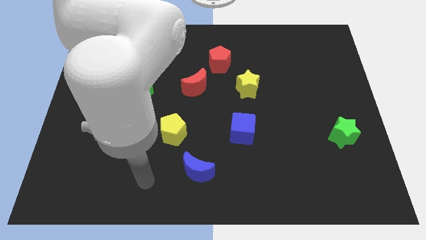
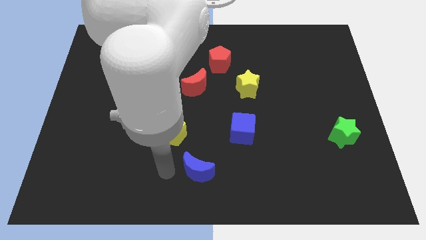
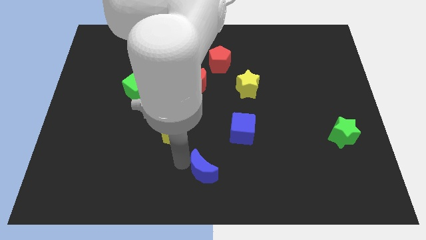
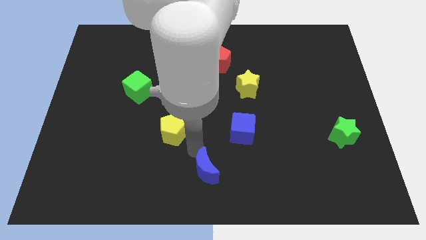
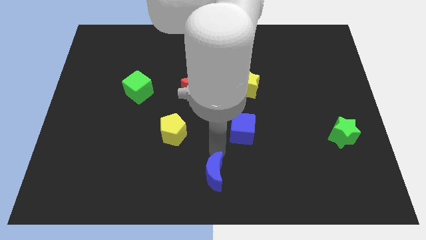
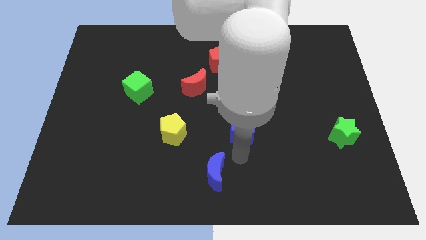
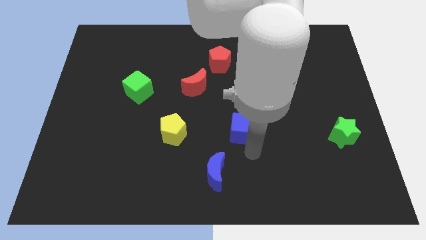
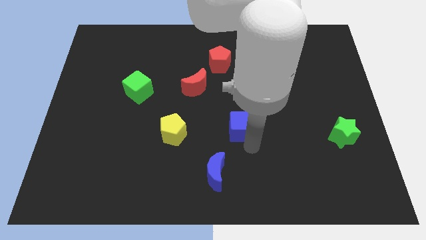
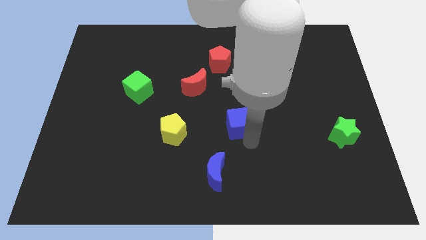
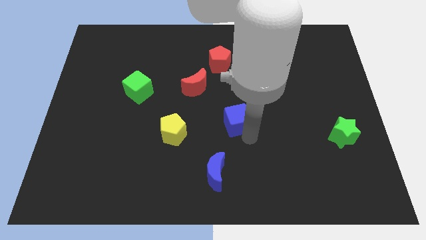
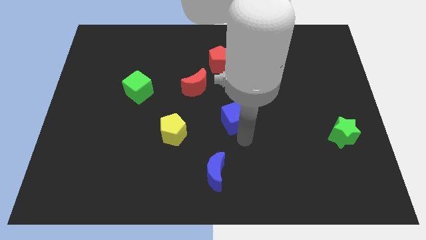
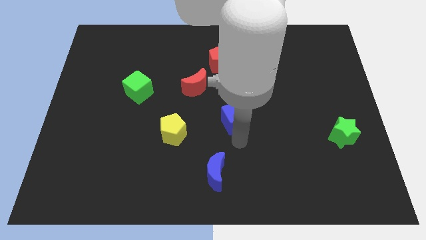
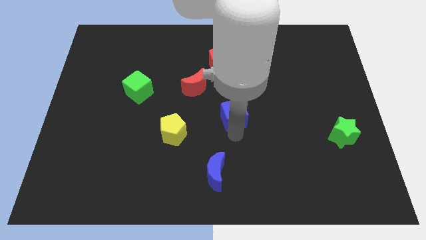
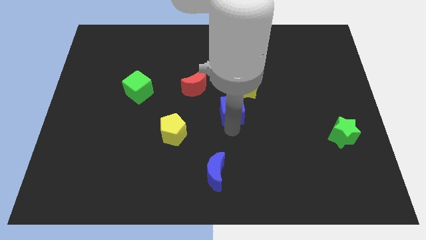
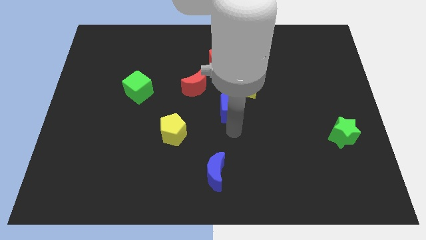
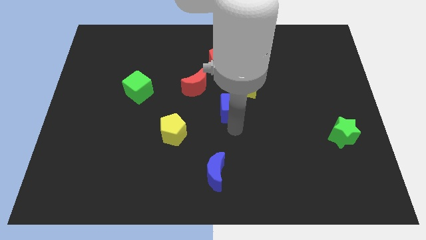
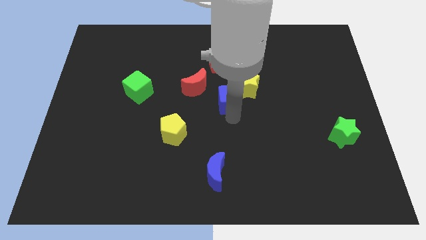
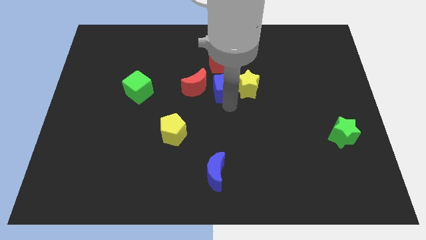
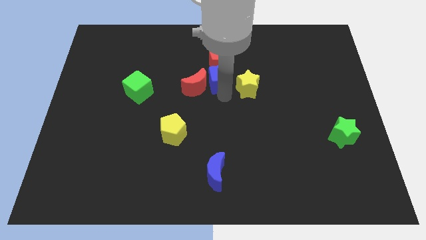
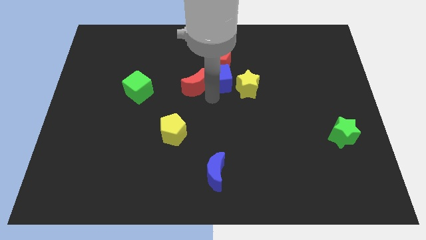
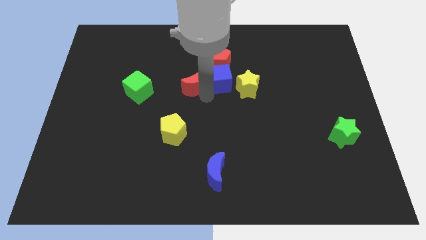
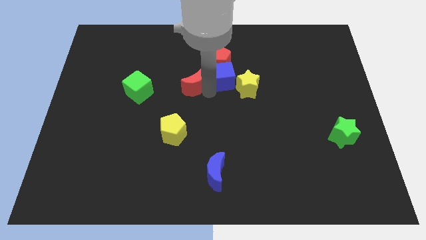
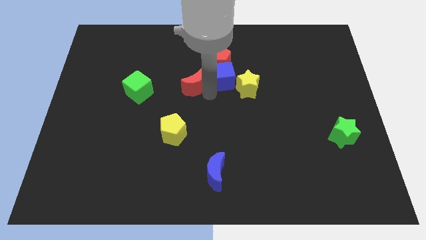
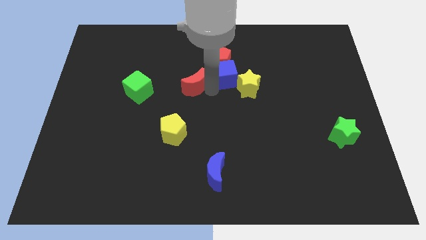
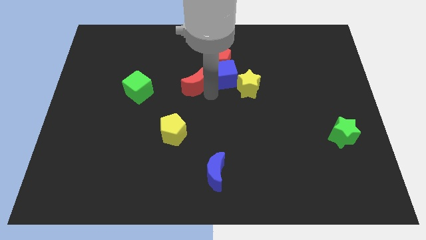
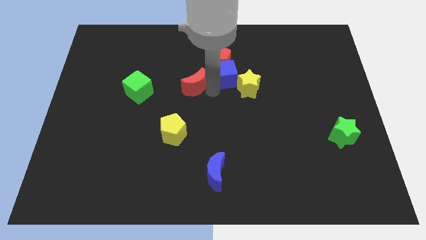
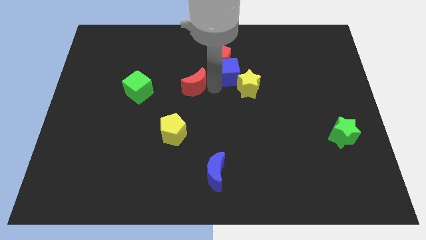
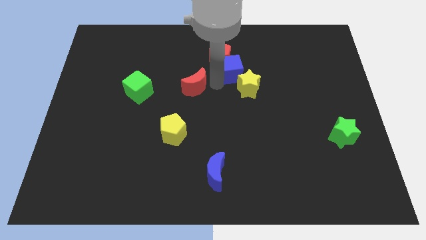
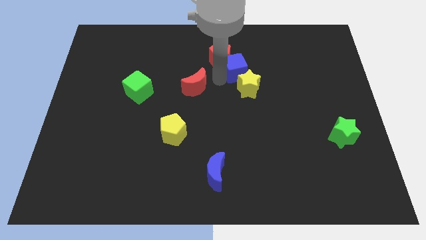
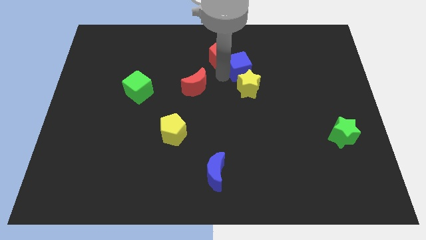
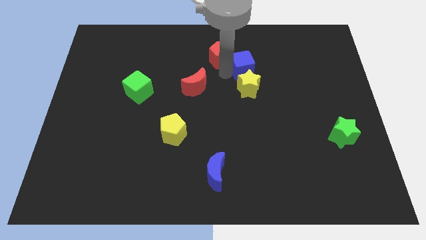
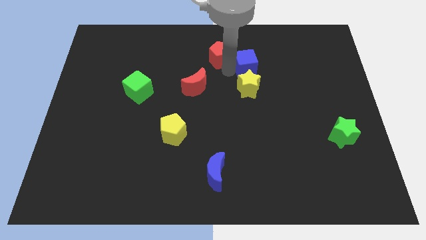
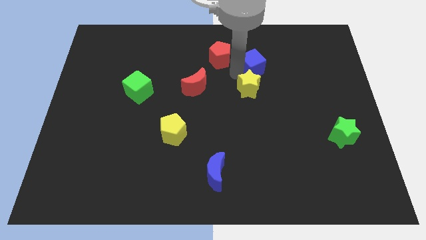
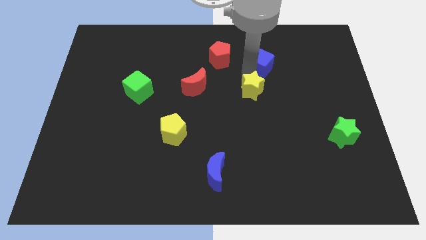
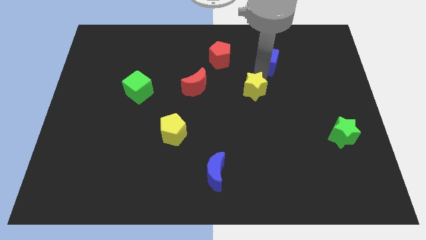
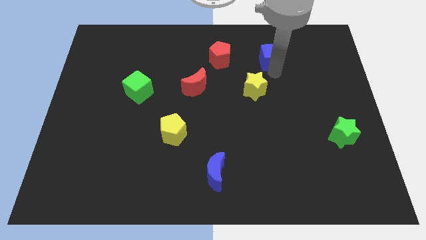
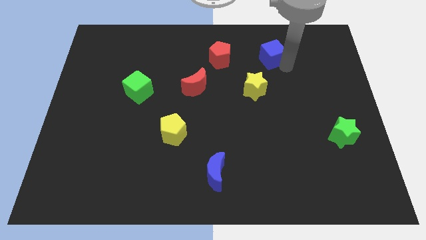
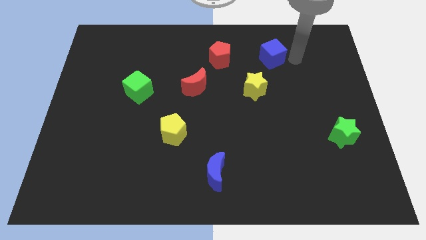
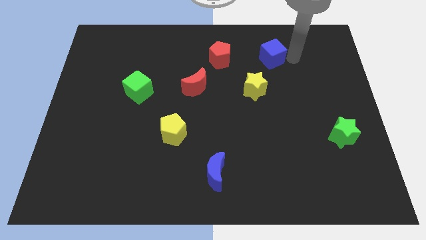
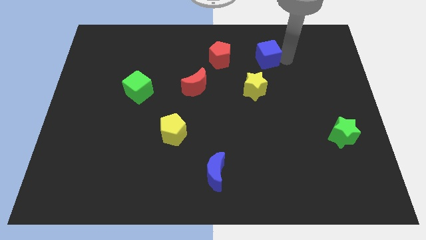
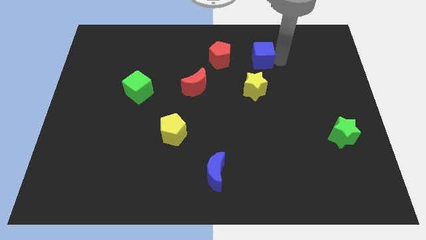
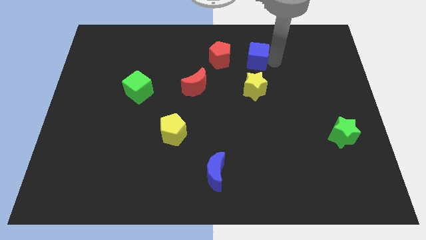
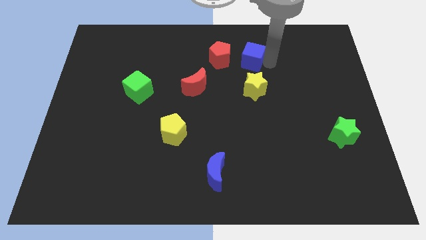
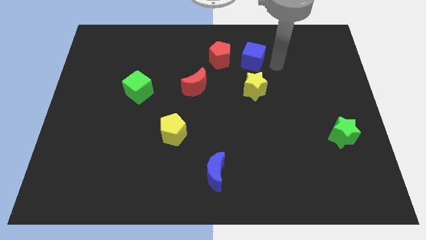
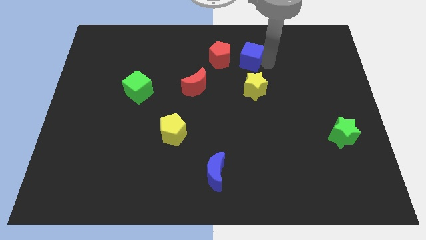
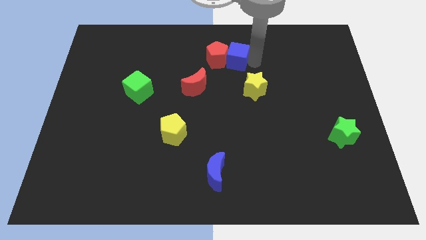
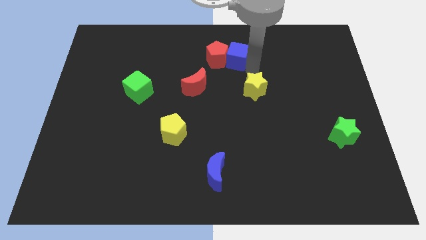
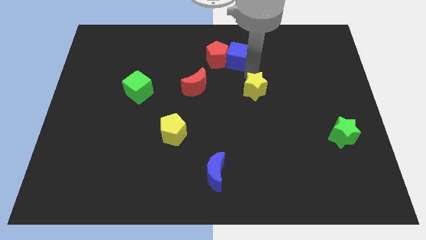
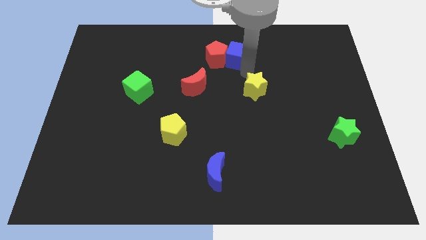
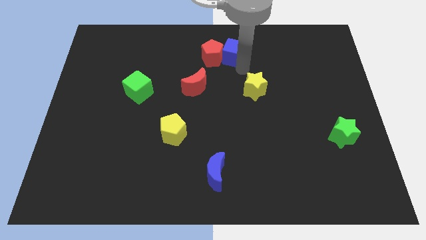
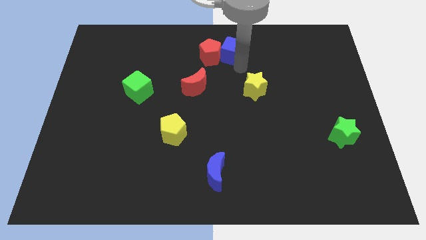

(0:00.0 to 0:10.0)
slide the blue cube to the top side

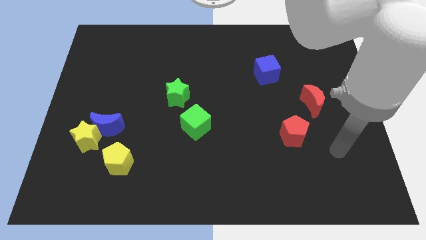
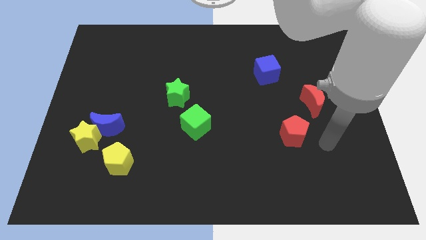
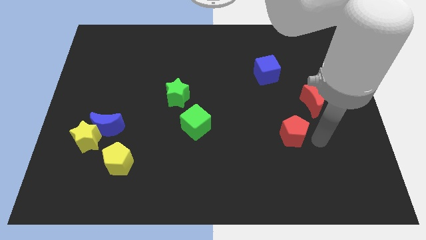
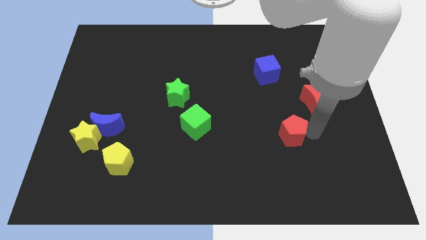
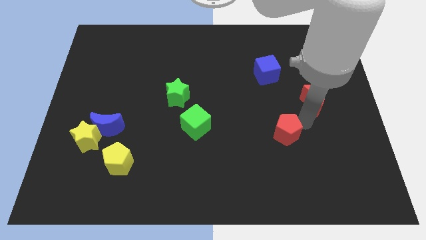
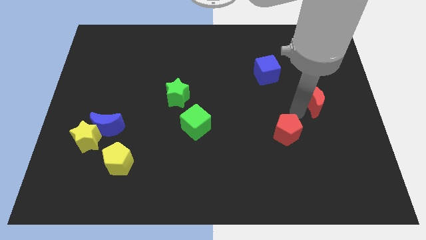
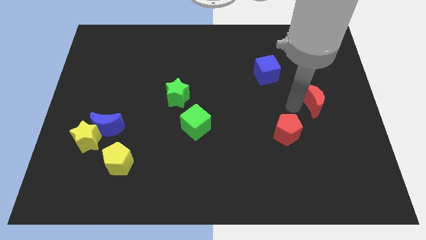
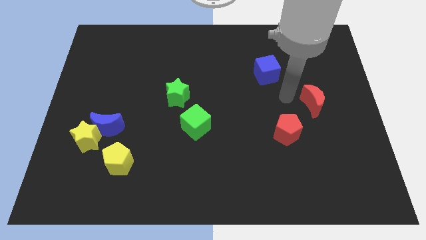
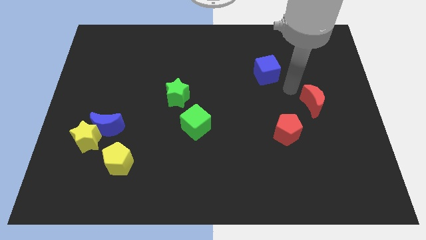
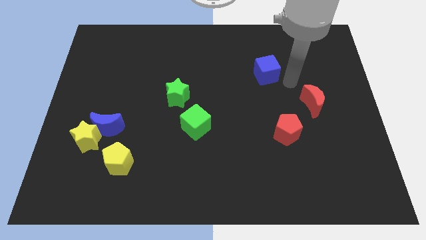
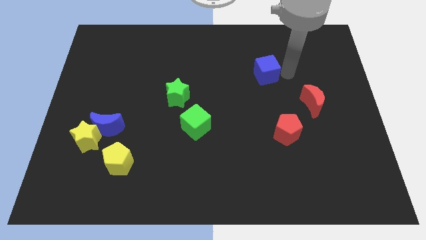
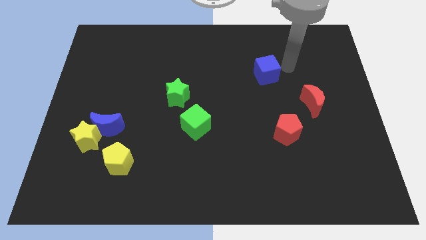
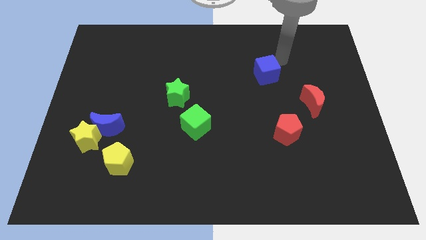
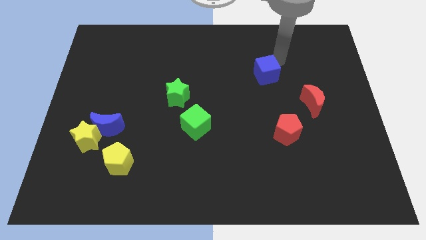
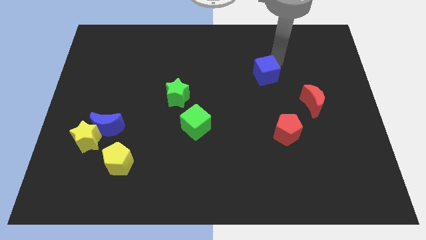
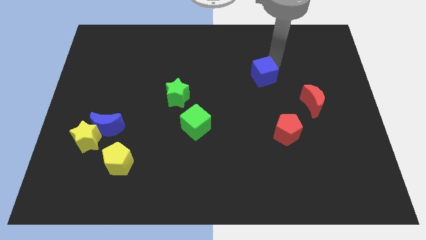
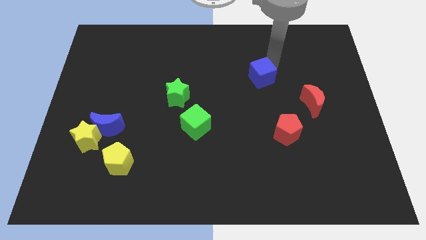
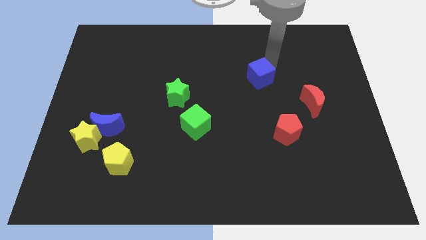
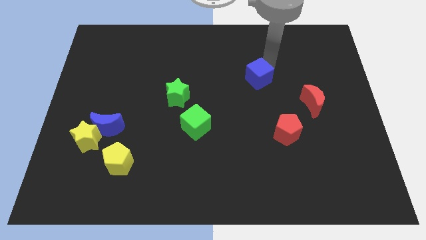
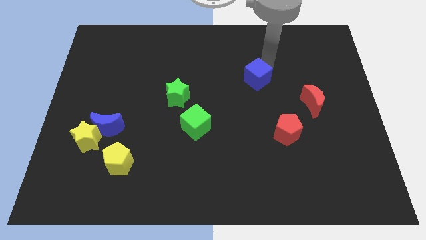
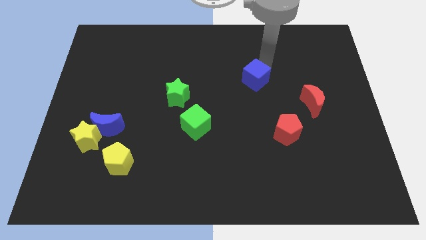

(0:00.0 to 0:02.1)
slide the blue cube to the center of the board
